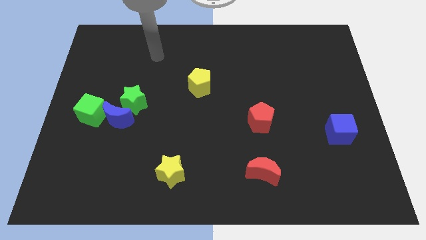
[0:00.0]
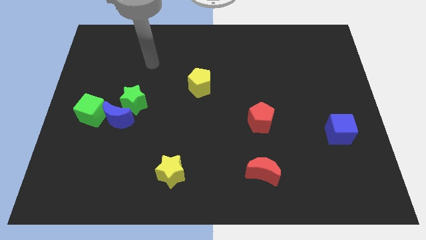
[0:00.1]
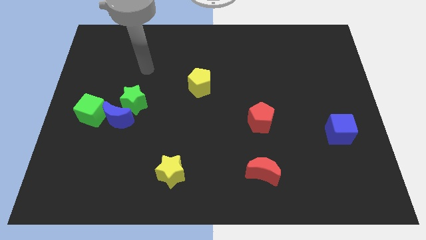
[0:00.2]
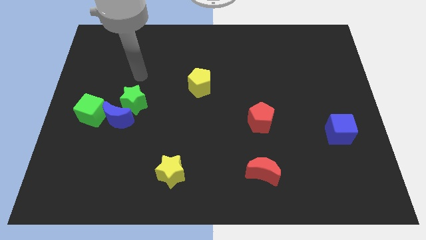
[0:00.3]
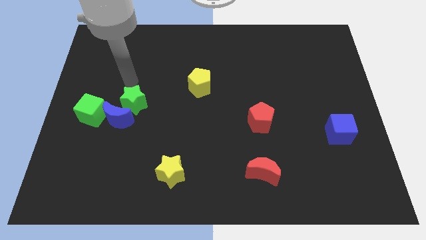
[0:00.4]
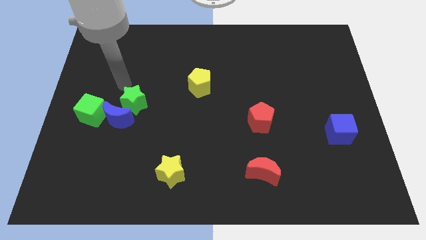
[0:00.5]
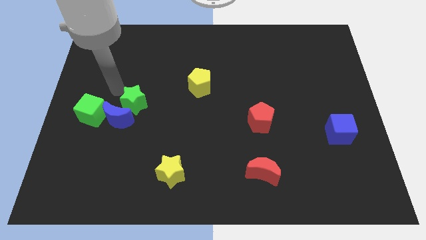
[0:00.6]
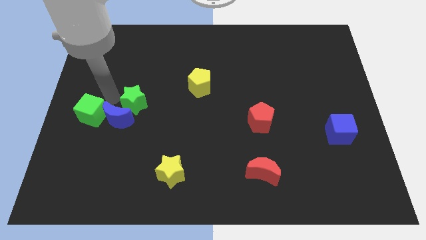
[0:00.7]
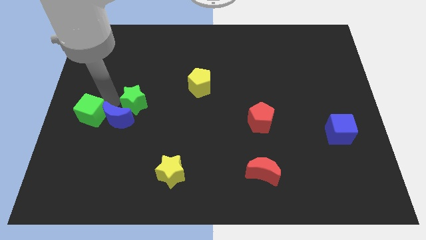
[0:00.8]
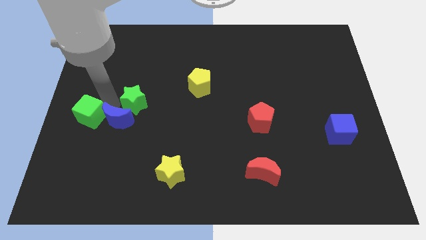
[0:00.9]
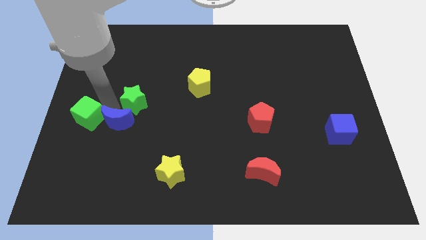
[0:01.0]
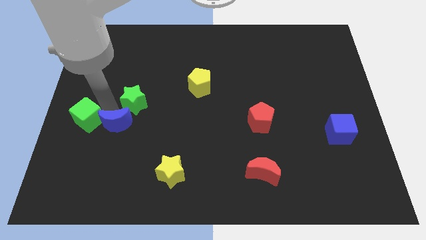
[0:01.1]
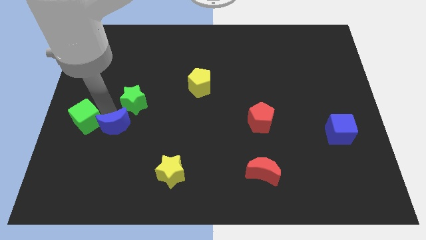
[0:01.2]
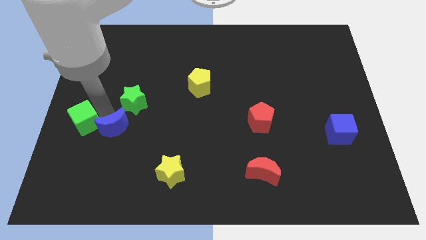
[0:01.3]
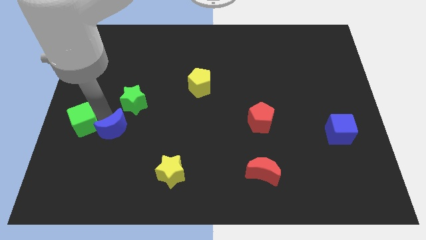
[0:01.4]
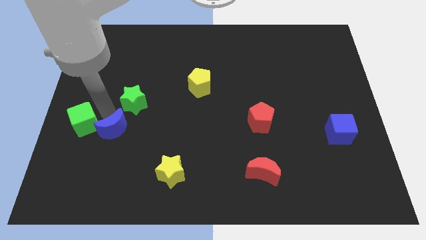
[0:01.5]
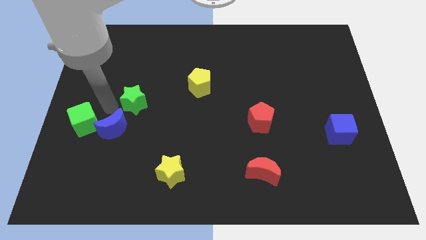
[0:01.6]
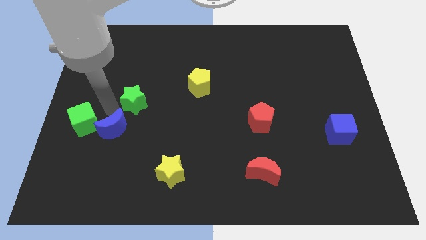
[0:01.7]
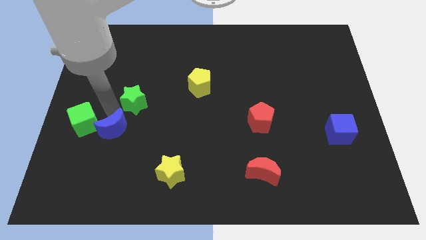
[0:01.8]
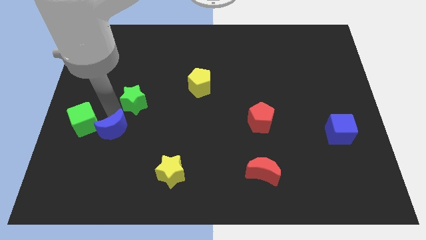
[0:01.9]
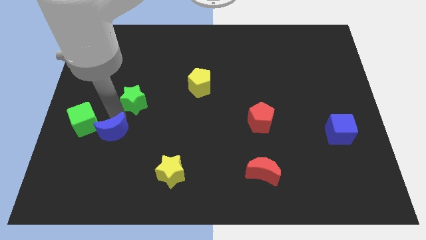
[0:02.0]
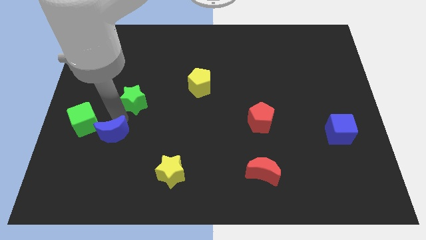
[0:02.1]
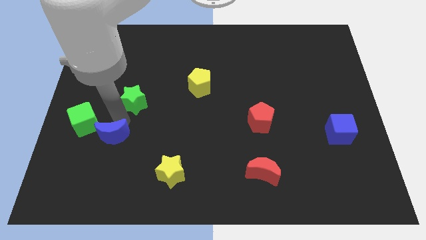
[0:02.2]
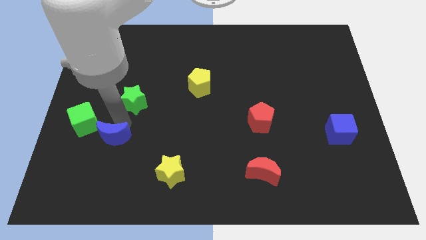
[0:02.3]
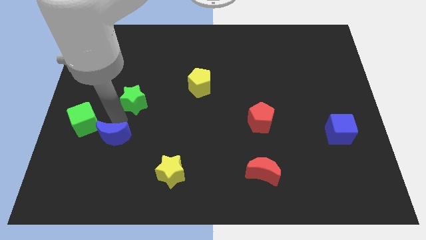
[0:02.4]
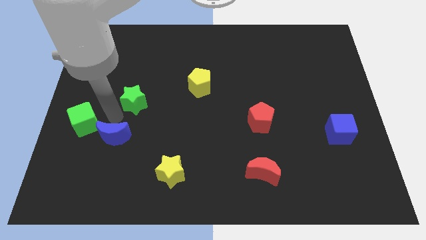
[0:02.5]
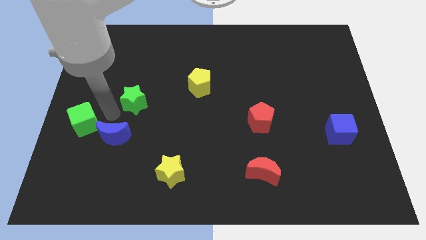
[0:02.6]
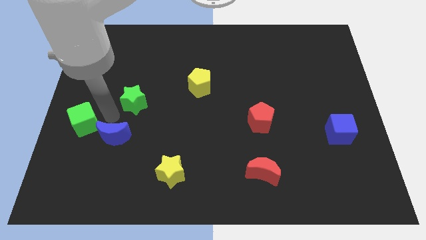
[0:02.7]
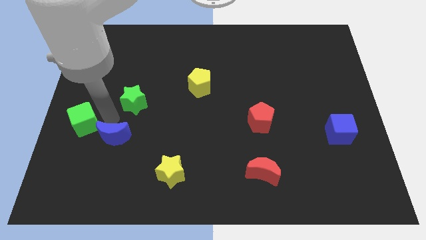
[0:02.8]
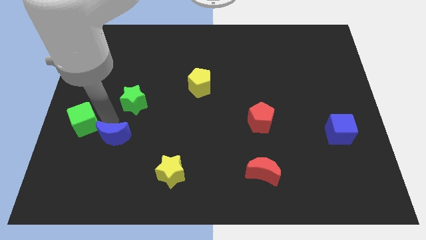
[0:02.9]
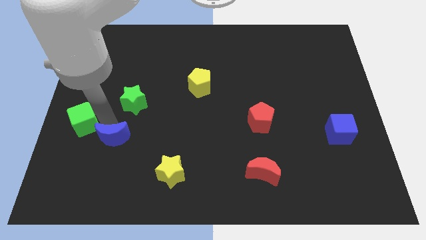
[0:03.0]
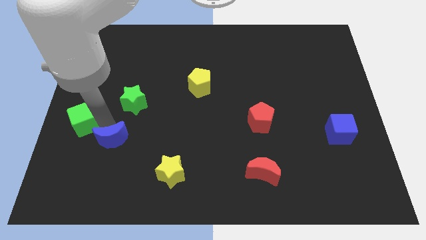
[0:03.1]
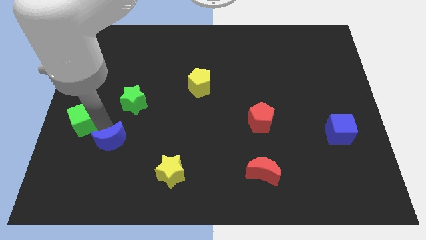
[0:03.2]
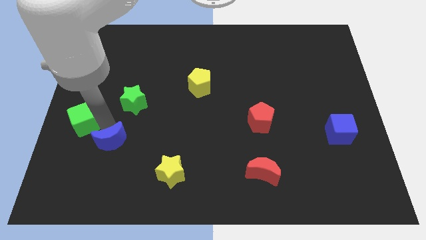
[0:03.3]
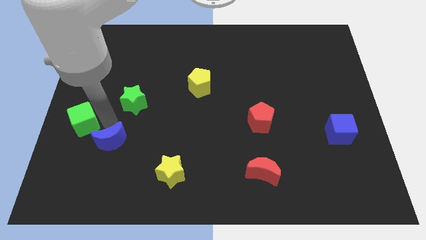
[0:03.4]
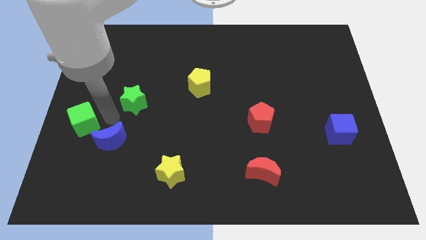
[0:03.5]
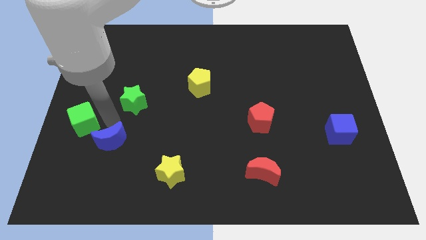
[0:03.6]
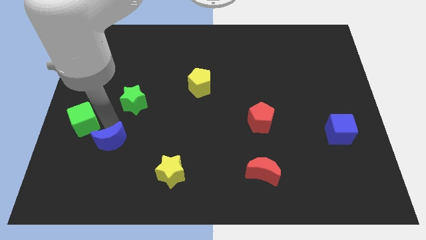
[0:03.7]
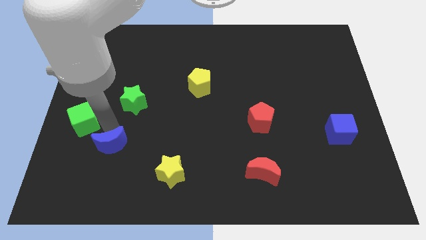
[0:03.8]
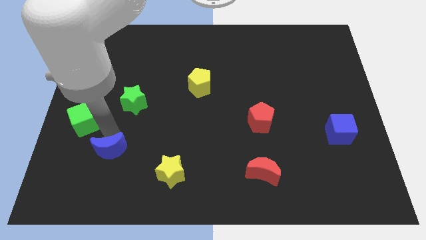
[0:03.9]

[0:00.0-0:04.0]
pull the blue moon apart from the green star and green cube

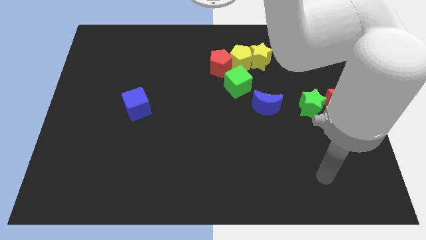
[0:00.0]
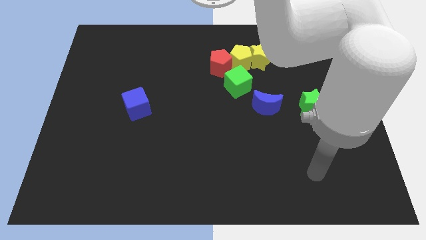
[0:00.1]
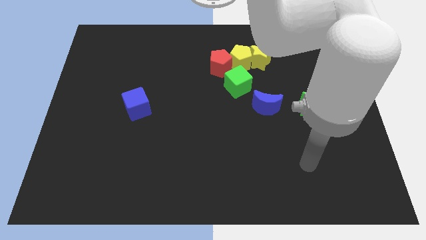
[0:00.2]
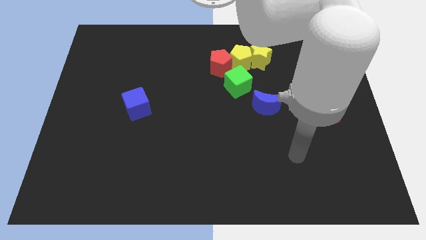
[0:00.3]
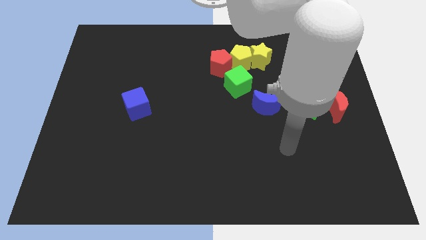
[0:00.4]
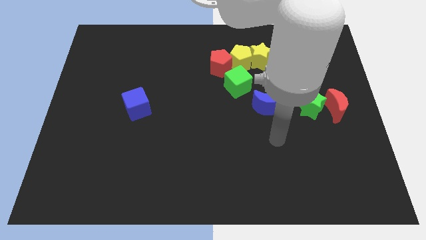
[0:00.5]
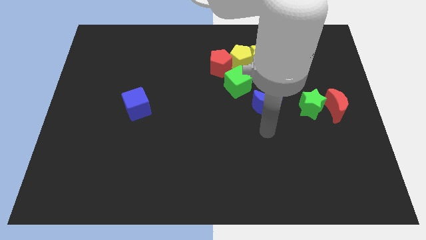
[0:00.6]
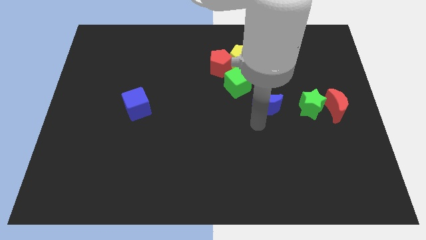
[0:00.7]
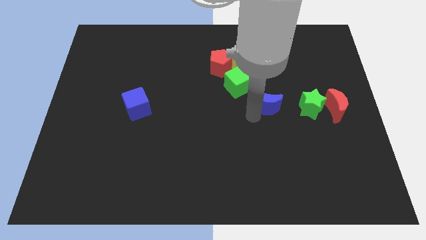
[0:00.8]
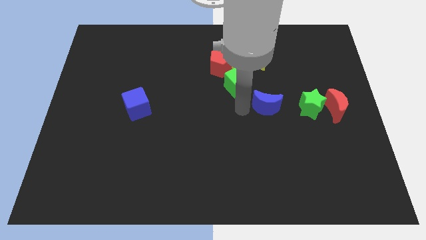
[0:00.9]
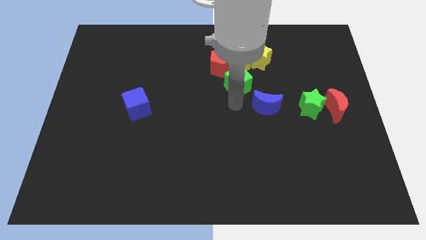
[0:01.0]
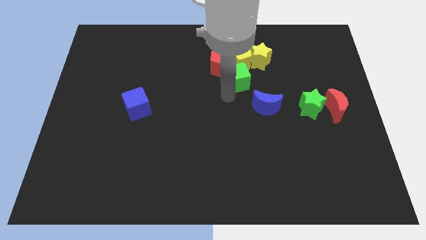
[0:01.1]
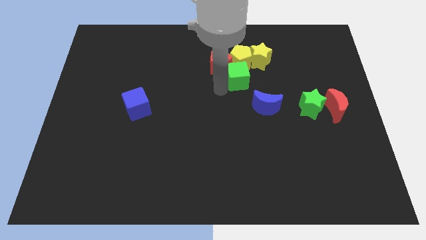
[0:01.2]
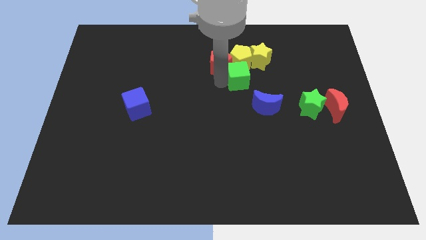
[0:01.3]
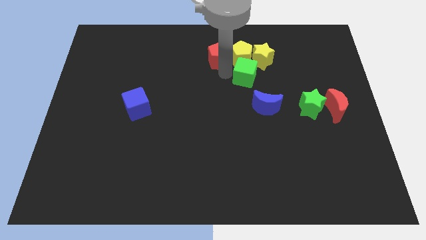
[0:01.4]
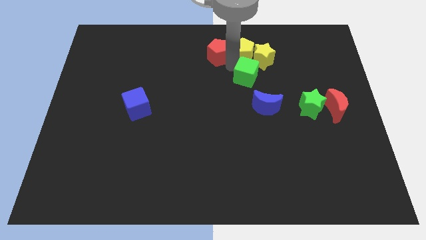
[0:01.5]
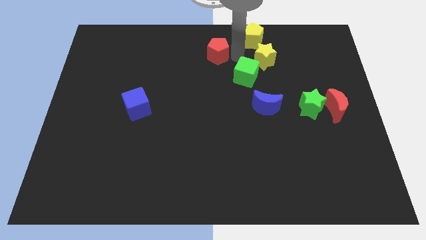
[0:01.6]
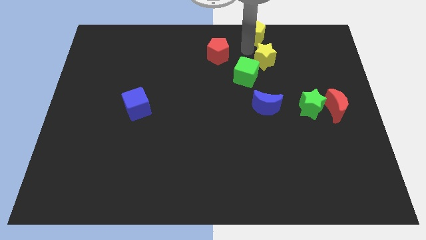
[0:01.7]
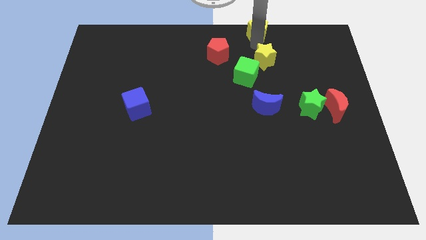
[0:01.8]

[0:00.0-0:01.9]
pull the yellow star apart from the yellow pentagon

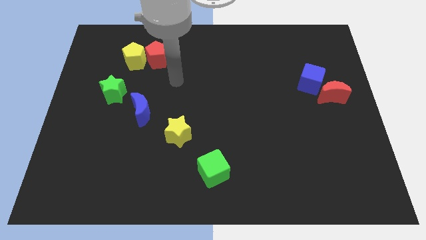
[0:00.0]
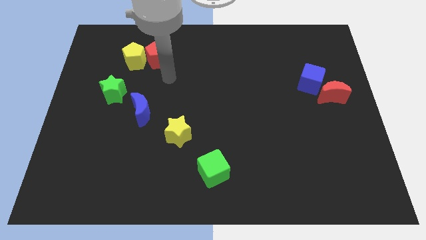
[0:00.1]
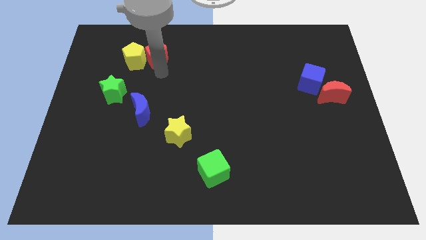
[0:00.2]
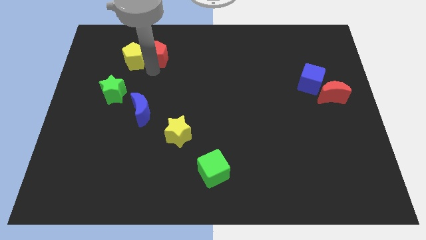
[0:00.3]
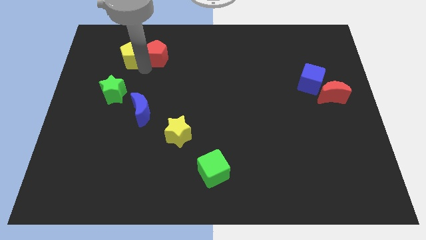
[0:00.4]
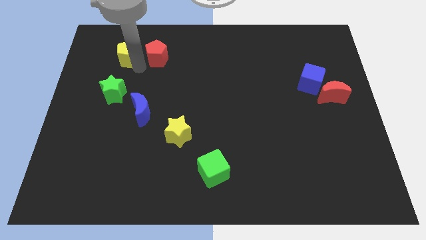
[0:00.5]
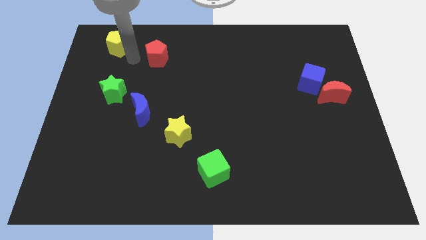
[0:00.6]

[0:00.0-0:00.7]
move the red pentagon away from the yellow pentagon

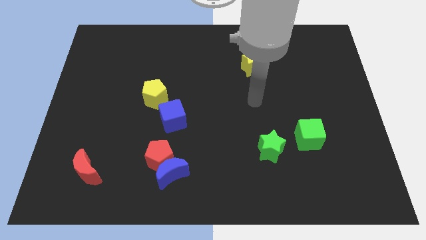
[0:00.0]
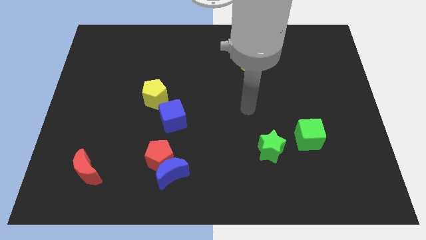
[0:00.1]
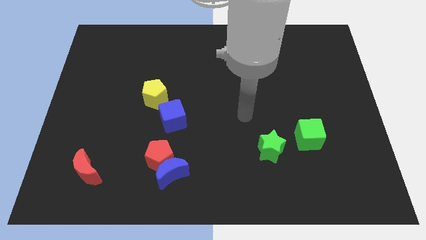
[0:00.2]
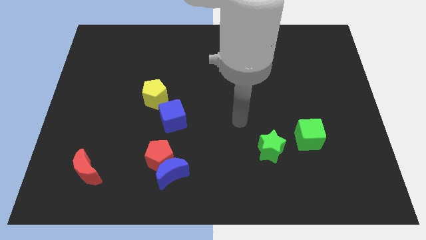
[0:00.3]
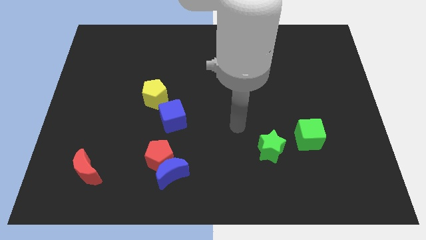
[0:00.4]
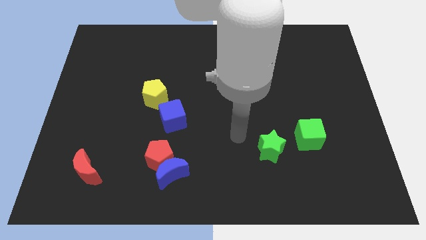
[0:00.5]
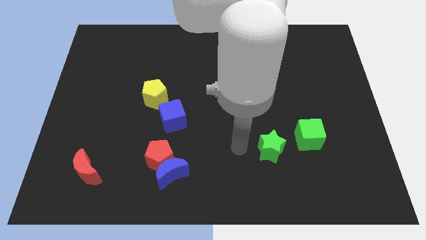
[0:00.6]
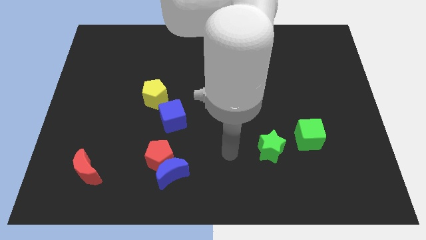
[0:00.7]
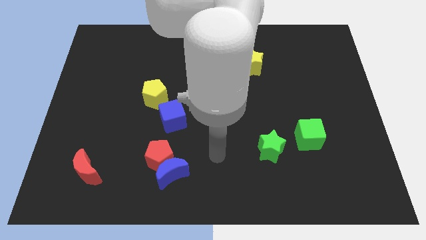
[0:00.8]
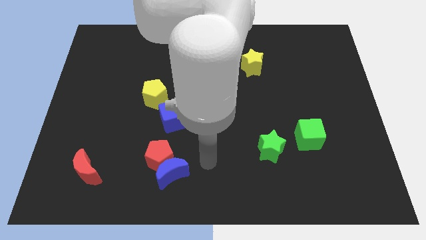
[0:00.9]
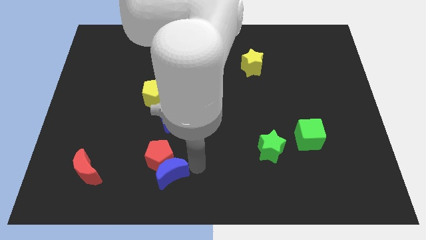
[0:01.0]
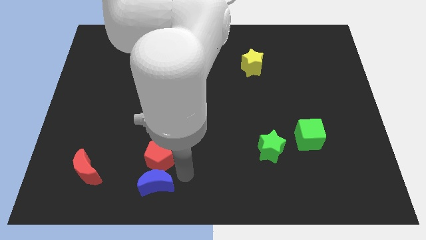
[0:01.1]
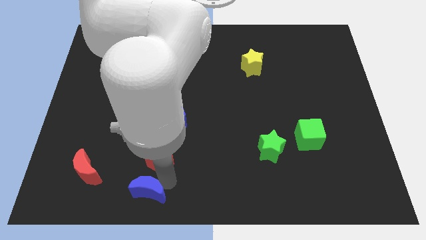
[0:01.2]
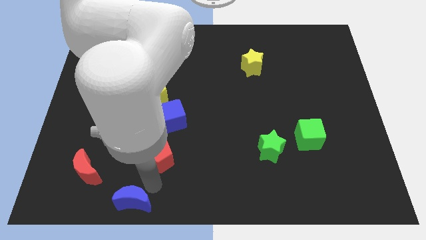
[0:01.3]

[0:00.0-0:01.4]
separate the red pentagon from the blue moon

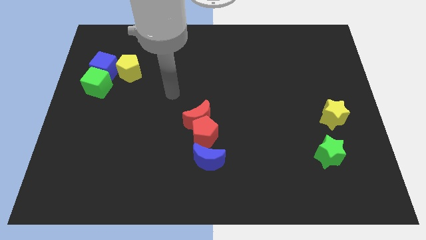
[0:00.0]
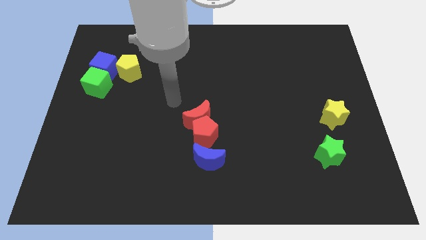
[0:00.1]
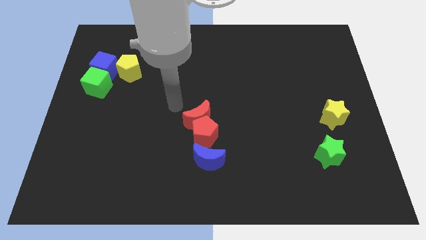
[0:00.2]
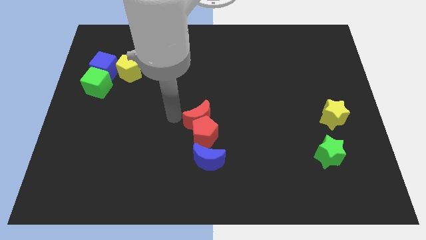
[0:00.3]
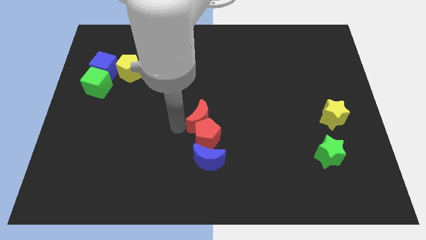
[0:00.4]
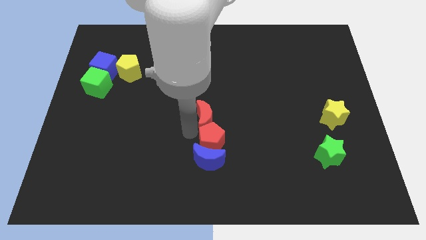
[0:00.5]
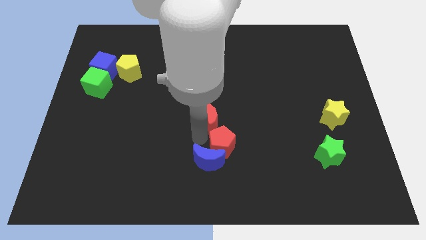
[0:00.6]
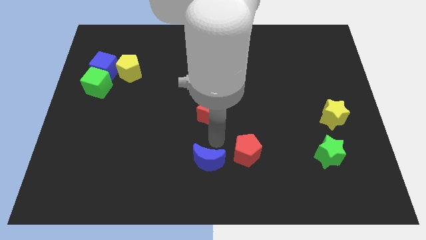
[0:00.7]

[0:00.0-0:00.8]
separate the red moon from the red pentagon

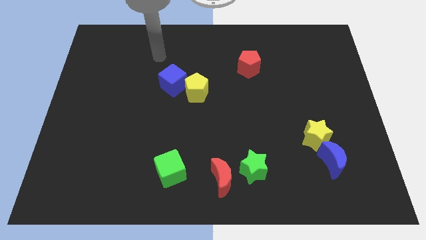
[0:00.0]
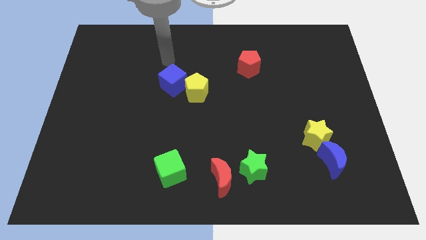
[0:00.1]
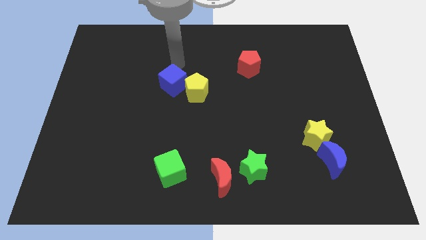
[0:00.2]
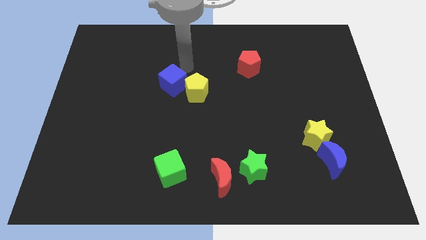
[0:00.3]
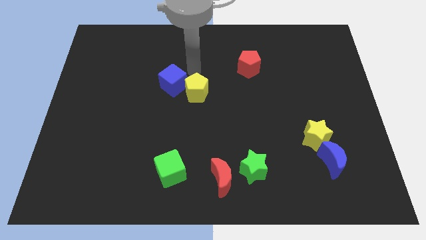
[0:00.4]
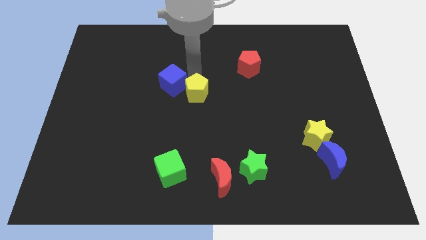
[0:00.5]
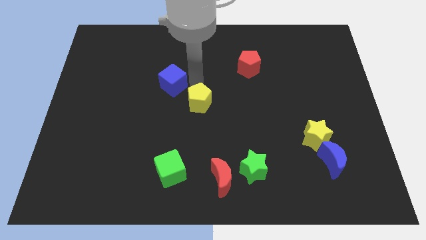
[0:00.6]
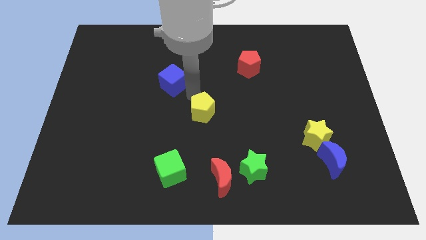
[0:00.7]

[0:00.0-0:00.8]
pull the blue cube apart from the yellow pentagon
